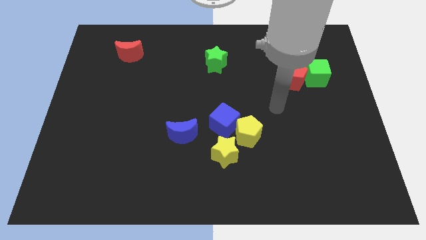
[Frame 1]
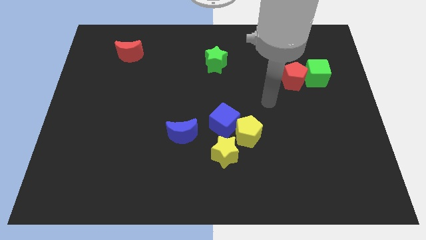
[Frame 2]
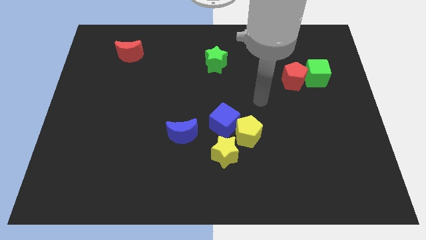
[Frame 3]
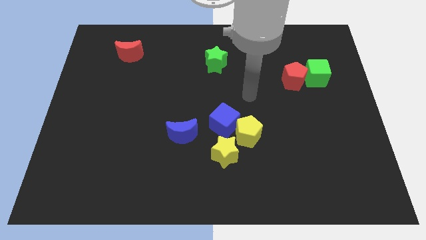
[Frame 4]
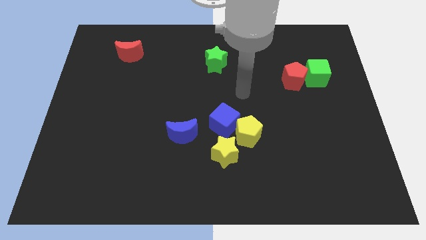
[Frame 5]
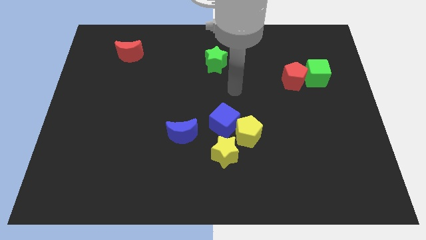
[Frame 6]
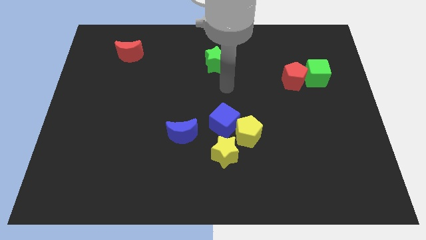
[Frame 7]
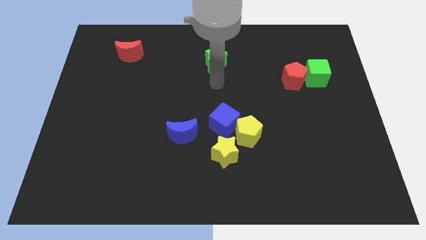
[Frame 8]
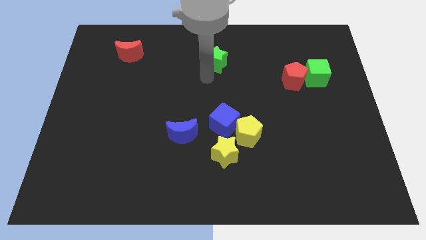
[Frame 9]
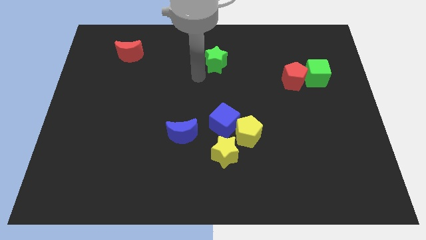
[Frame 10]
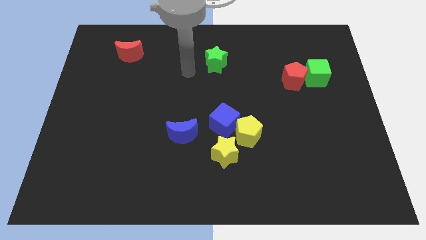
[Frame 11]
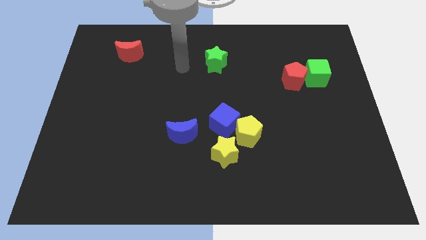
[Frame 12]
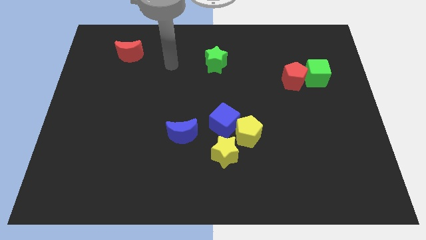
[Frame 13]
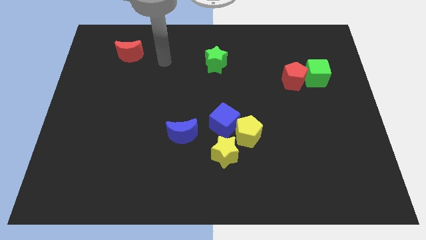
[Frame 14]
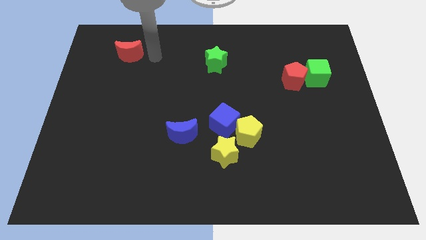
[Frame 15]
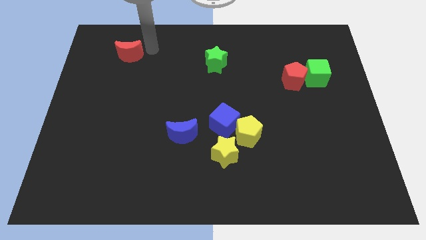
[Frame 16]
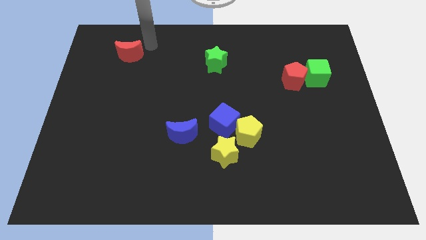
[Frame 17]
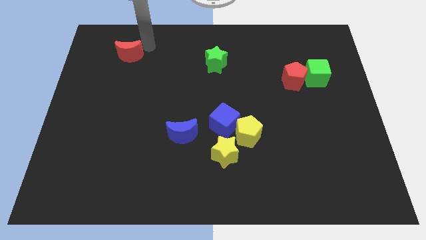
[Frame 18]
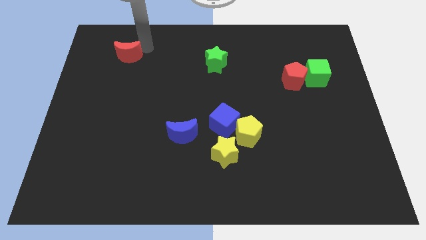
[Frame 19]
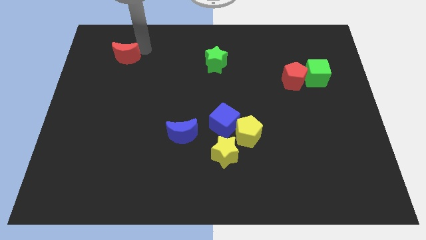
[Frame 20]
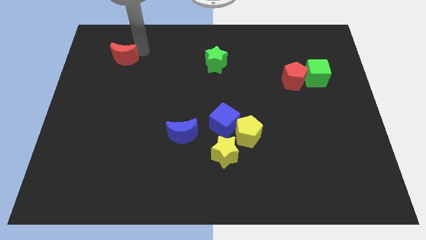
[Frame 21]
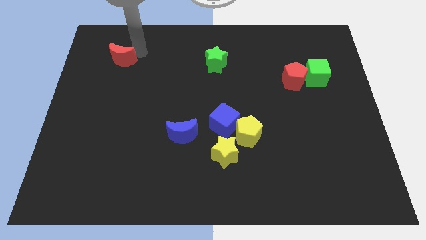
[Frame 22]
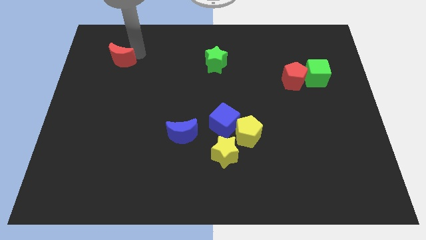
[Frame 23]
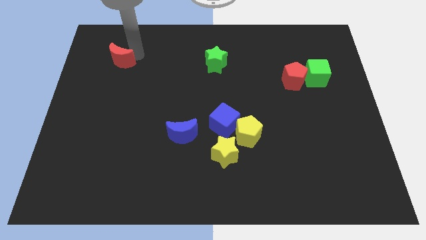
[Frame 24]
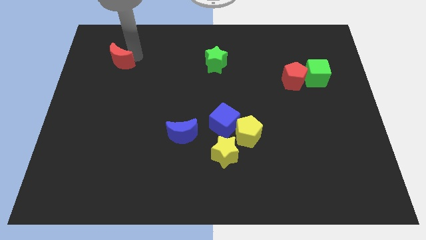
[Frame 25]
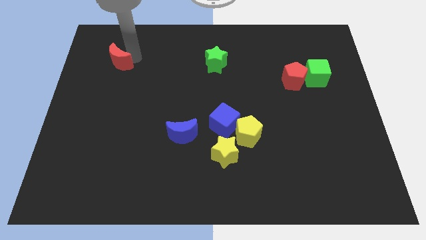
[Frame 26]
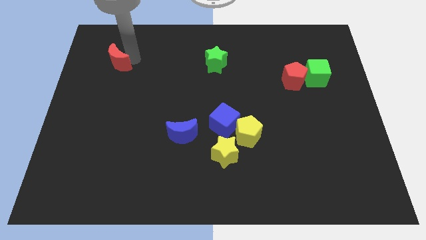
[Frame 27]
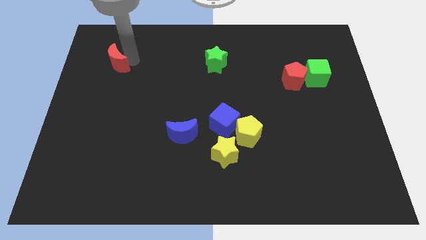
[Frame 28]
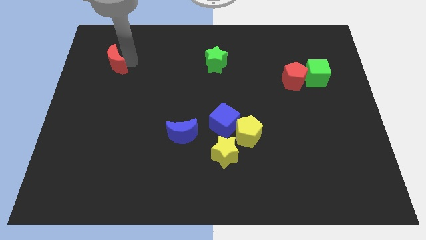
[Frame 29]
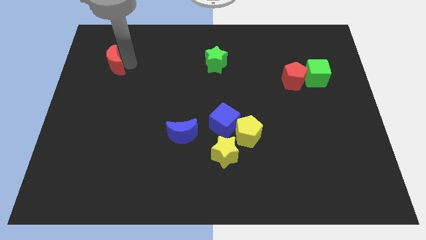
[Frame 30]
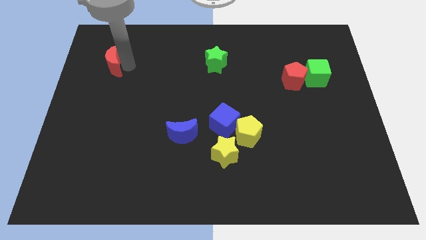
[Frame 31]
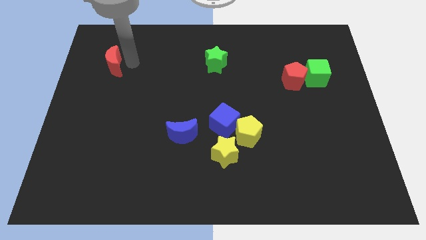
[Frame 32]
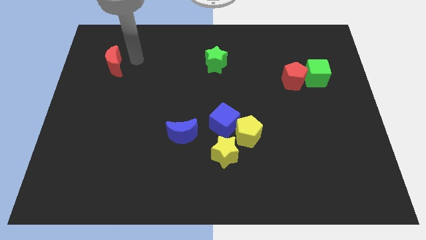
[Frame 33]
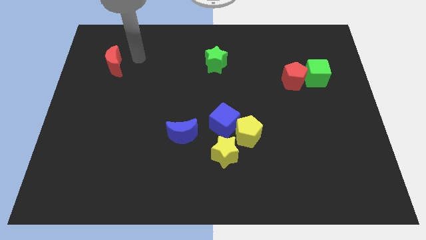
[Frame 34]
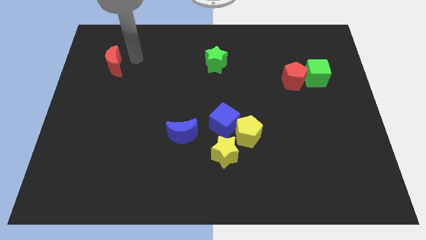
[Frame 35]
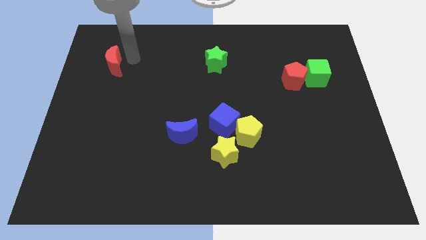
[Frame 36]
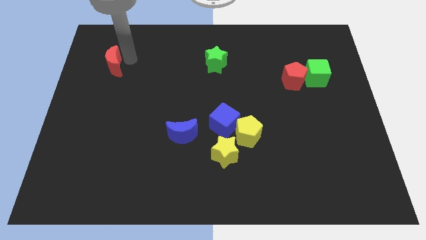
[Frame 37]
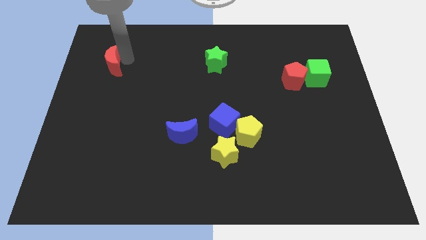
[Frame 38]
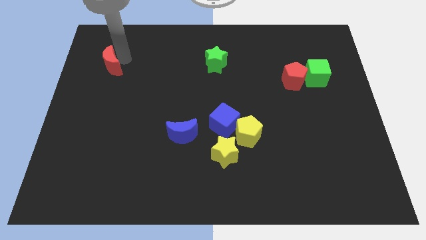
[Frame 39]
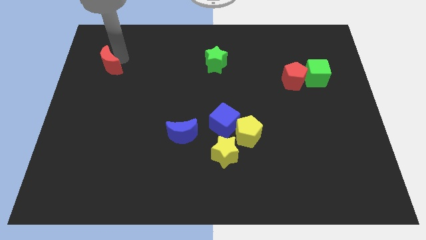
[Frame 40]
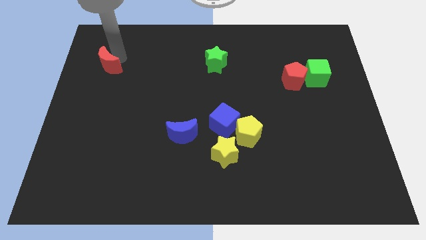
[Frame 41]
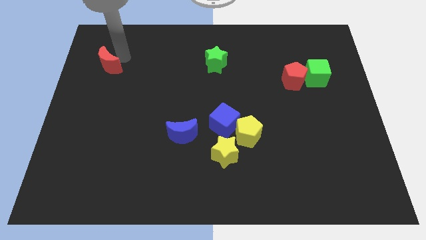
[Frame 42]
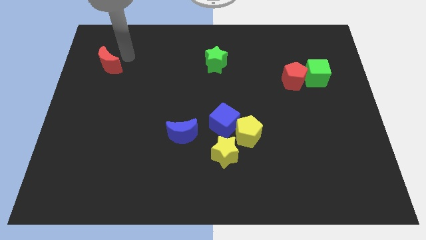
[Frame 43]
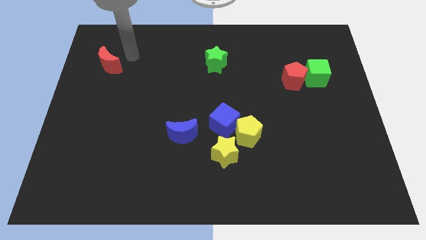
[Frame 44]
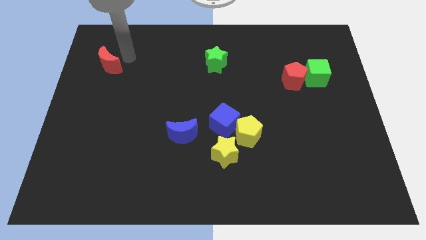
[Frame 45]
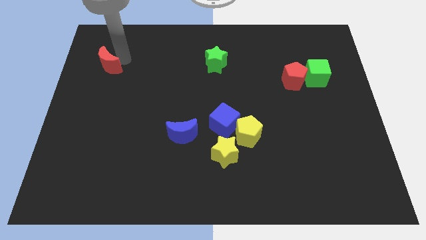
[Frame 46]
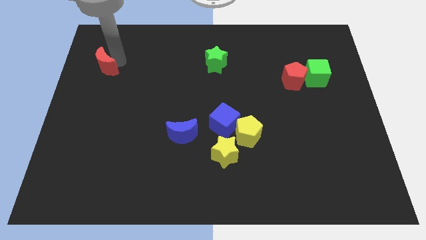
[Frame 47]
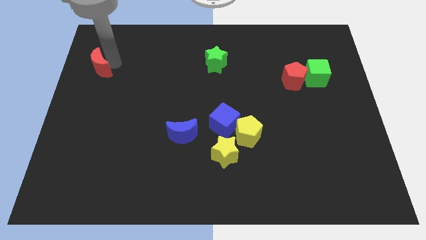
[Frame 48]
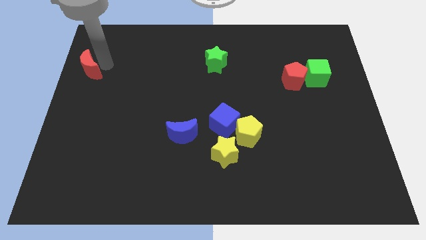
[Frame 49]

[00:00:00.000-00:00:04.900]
push the red moon to the center left
